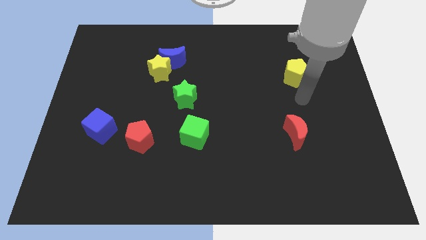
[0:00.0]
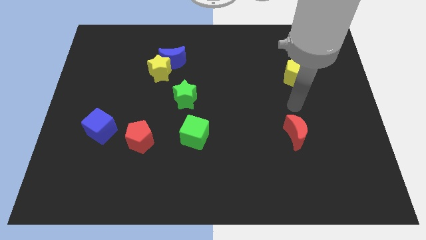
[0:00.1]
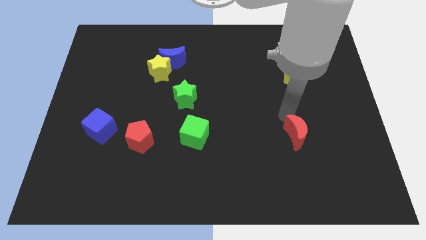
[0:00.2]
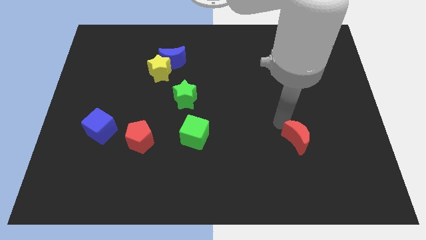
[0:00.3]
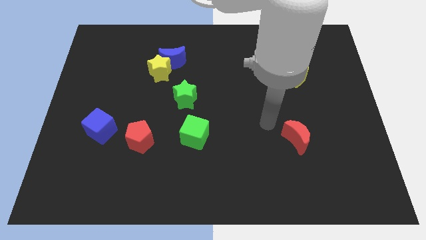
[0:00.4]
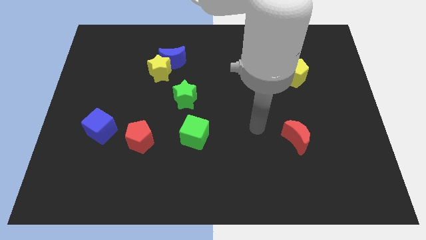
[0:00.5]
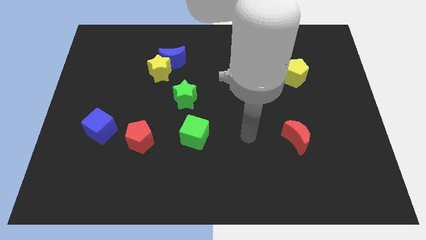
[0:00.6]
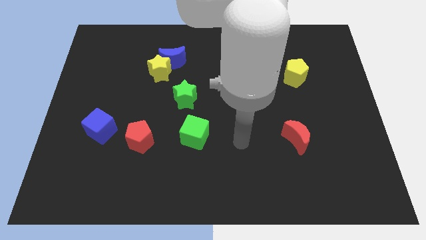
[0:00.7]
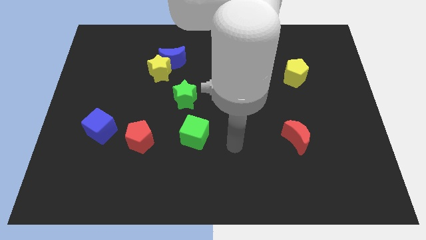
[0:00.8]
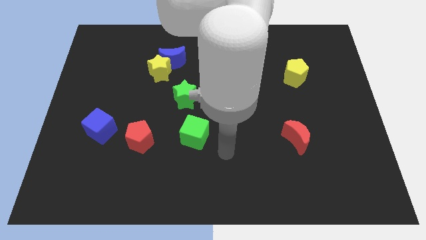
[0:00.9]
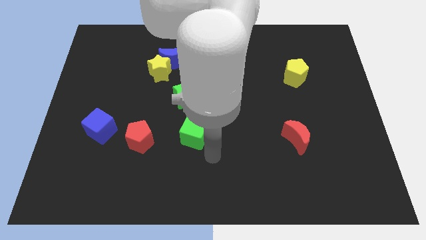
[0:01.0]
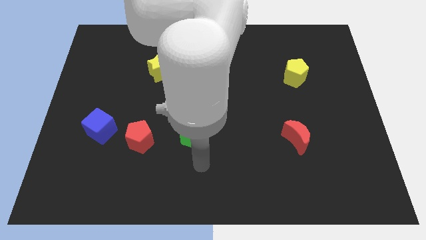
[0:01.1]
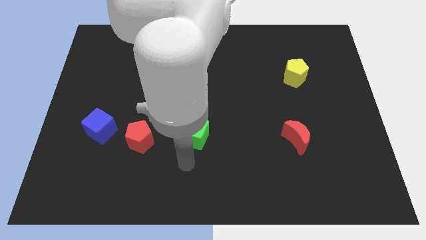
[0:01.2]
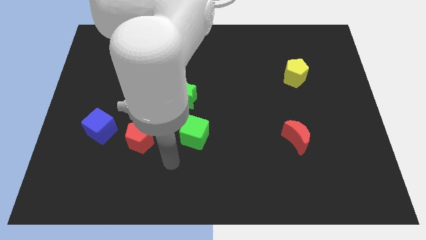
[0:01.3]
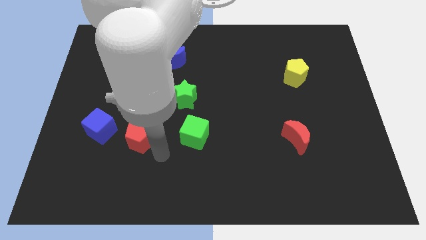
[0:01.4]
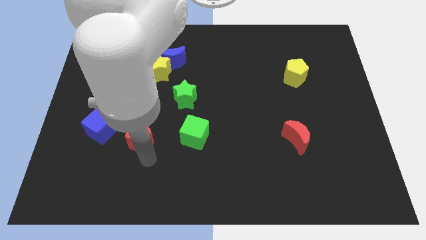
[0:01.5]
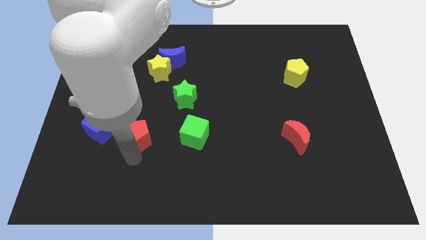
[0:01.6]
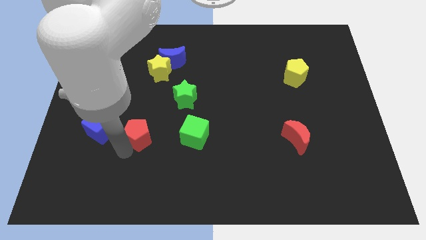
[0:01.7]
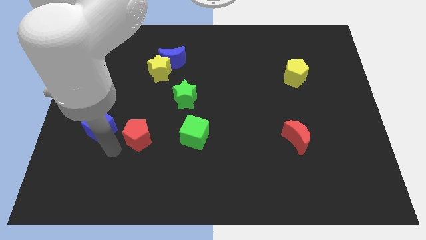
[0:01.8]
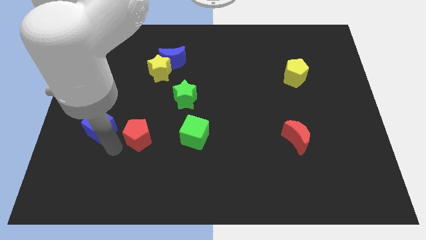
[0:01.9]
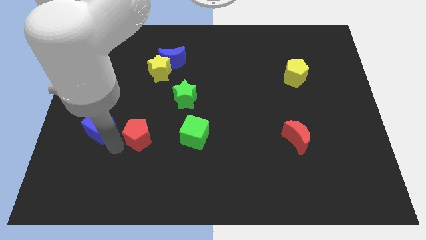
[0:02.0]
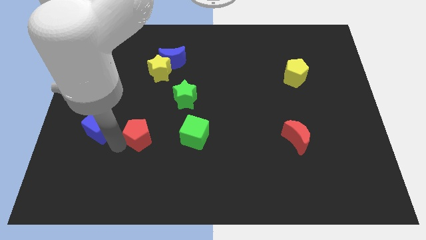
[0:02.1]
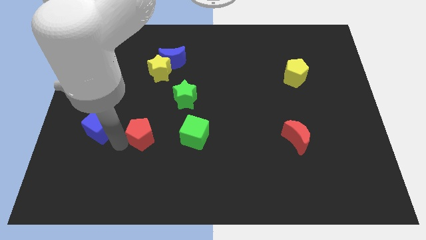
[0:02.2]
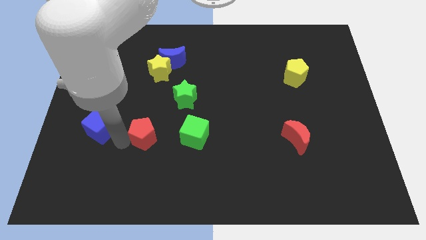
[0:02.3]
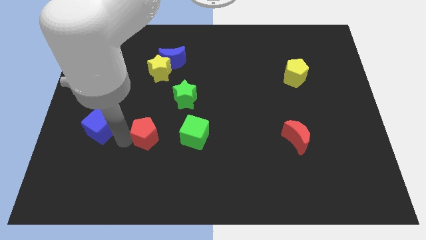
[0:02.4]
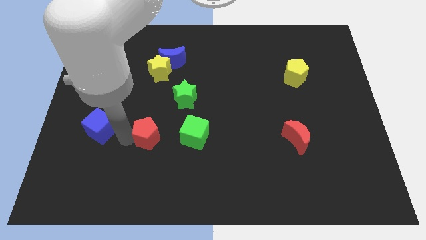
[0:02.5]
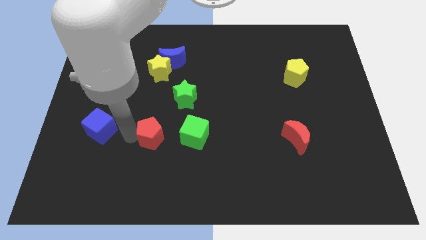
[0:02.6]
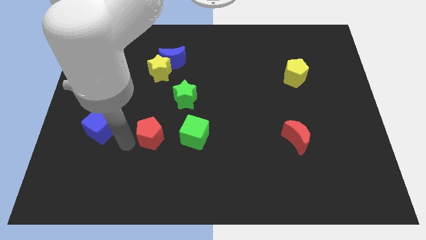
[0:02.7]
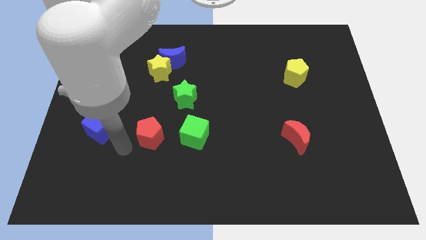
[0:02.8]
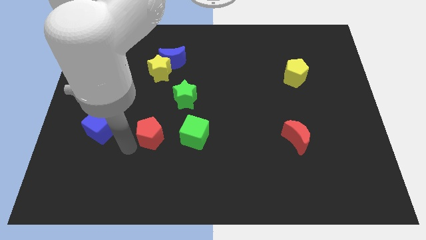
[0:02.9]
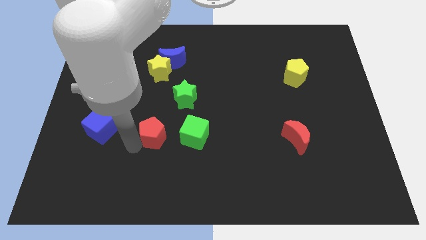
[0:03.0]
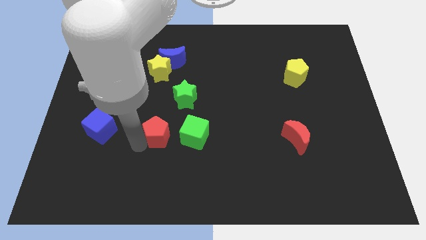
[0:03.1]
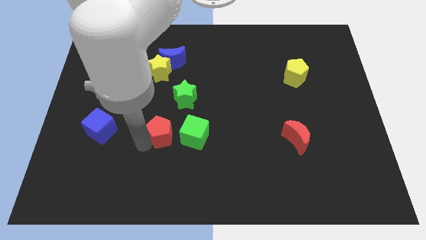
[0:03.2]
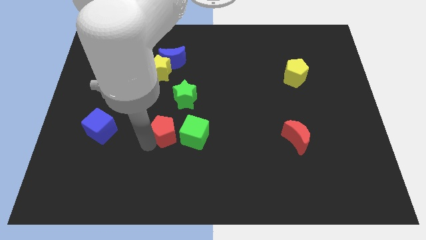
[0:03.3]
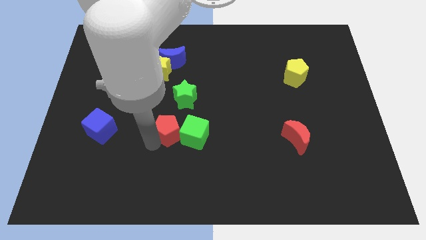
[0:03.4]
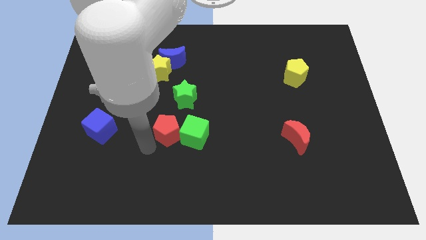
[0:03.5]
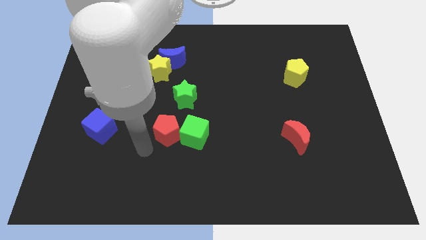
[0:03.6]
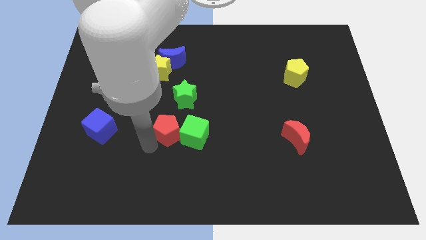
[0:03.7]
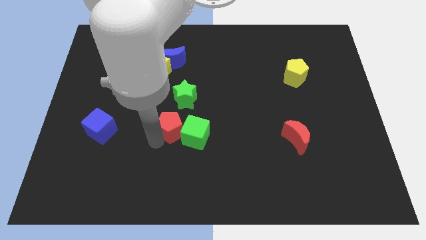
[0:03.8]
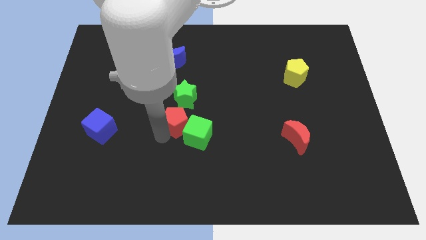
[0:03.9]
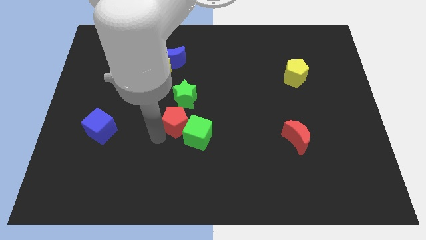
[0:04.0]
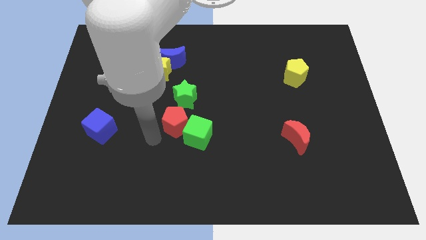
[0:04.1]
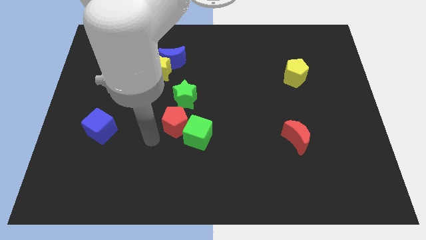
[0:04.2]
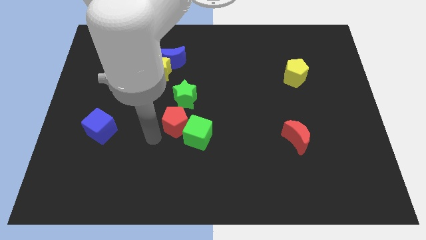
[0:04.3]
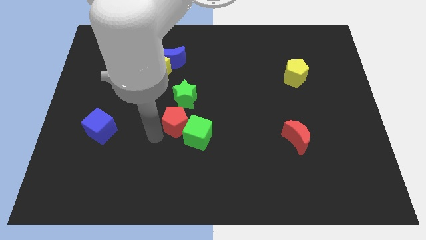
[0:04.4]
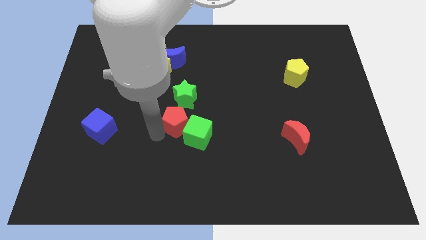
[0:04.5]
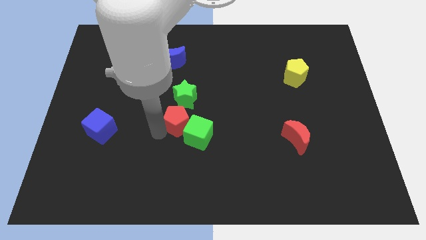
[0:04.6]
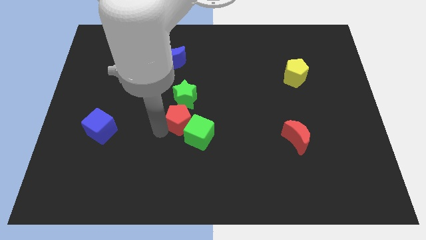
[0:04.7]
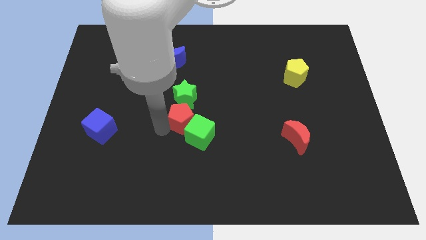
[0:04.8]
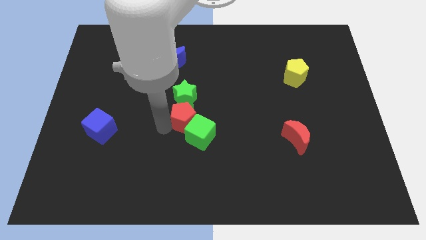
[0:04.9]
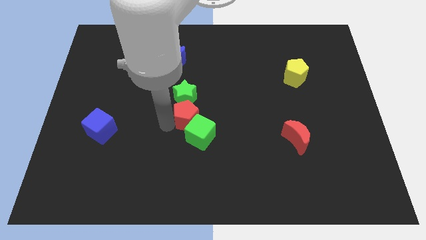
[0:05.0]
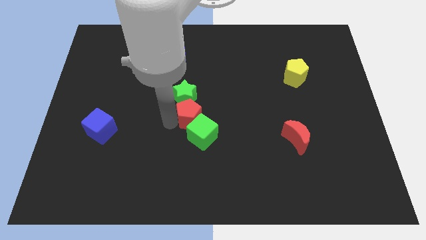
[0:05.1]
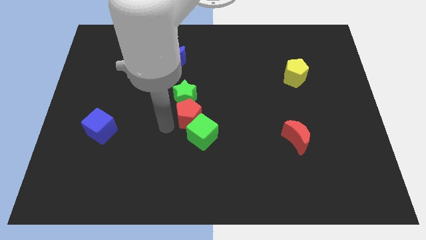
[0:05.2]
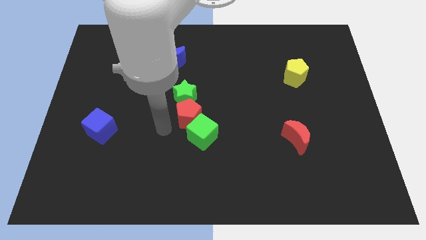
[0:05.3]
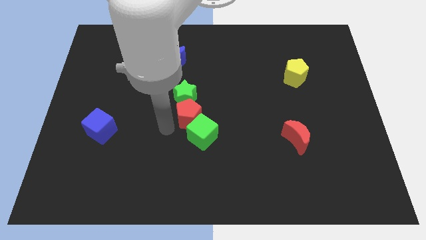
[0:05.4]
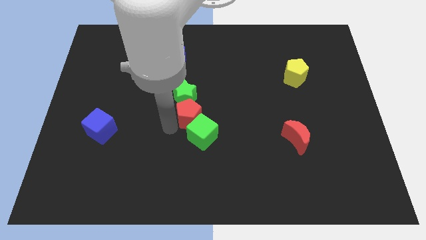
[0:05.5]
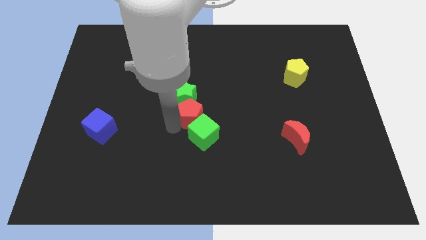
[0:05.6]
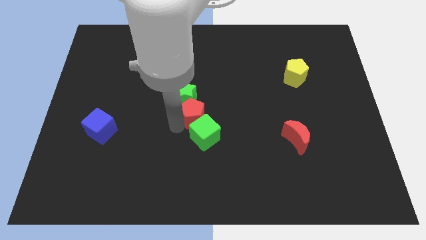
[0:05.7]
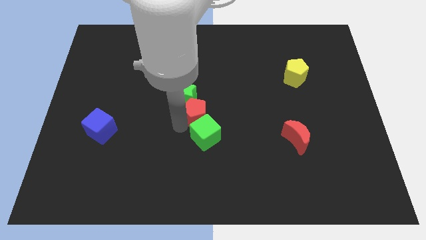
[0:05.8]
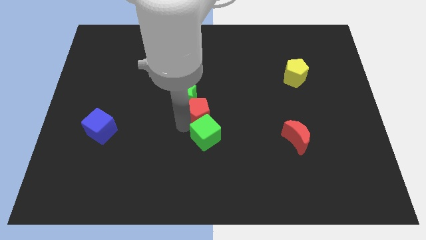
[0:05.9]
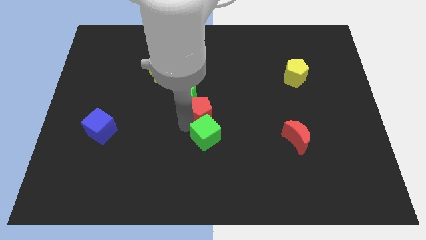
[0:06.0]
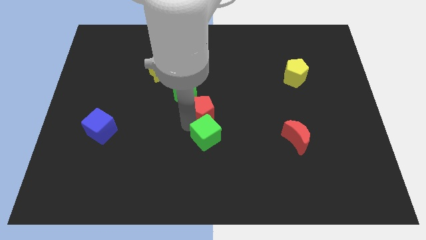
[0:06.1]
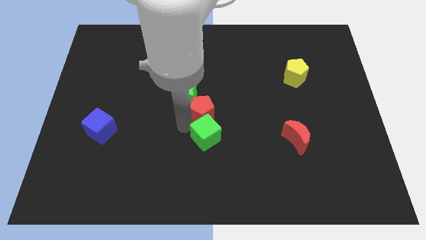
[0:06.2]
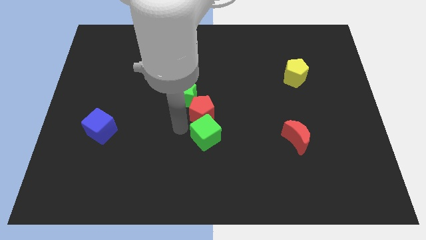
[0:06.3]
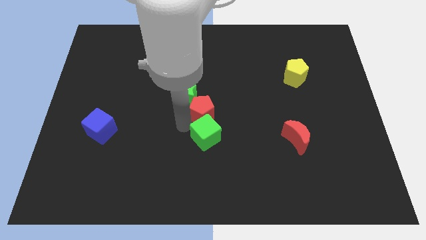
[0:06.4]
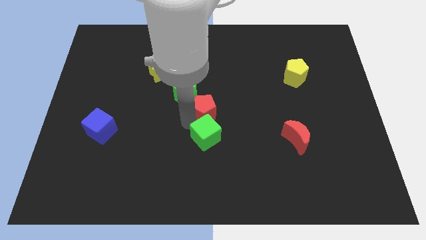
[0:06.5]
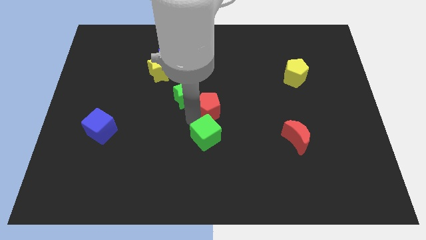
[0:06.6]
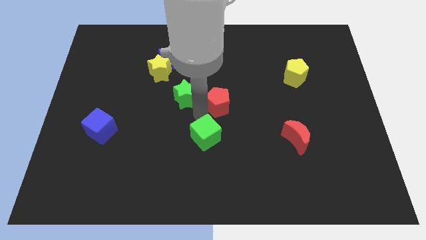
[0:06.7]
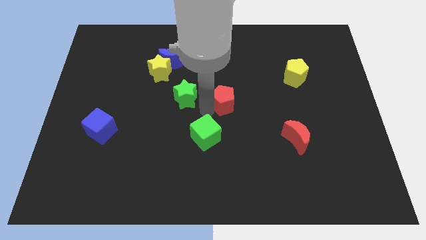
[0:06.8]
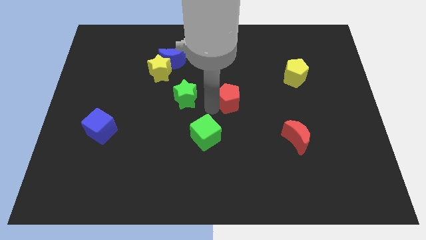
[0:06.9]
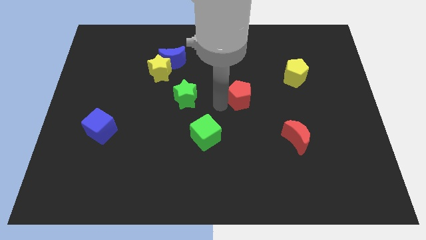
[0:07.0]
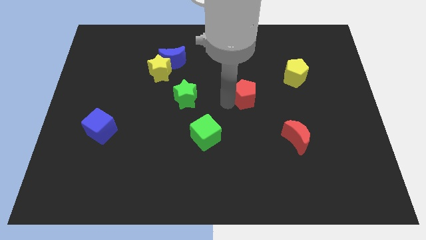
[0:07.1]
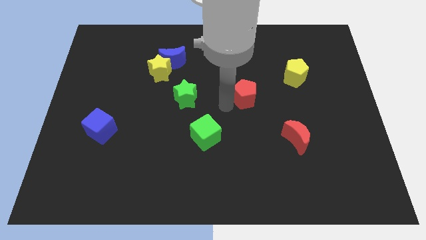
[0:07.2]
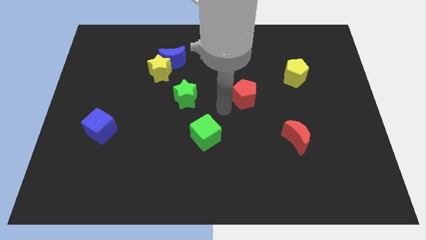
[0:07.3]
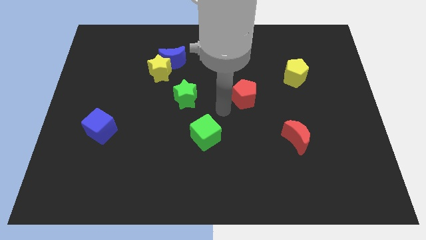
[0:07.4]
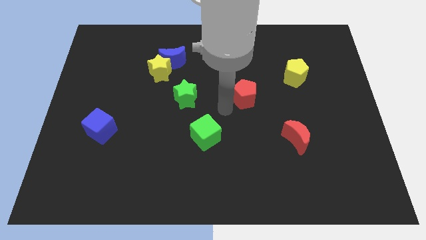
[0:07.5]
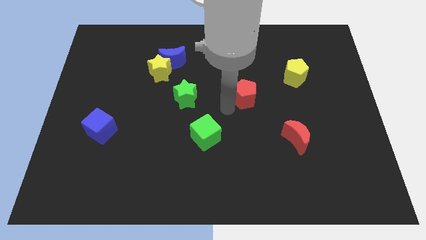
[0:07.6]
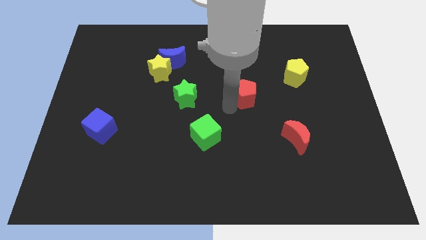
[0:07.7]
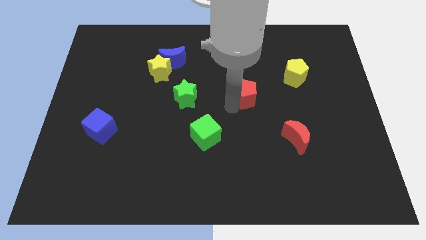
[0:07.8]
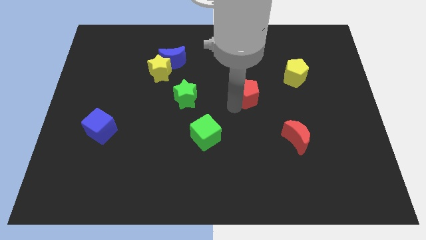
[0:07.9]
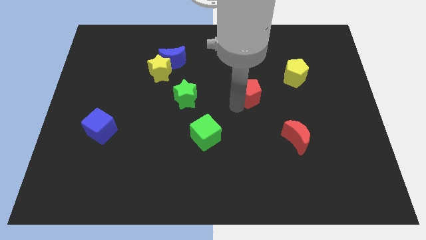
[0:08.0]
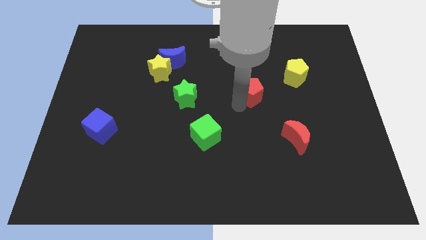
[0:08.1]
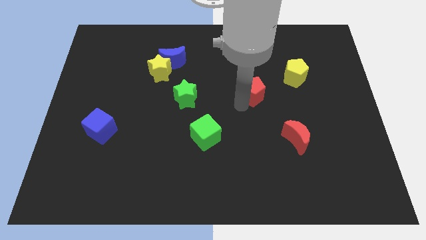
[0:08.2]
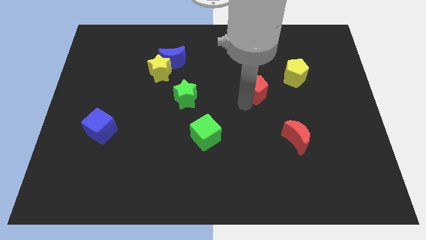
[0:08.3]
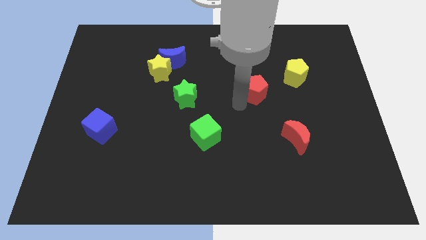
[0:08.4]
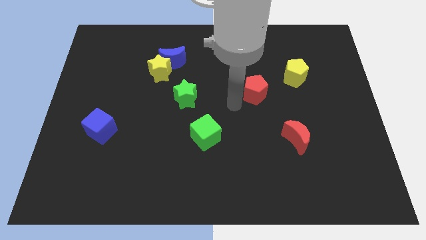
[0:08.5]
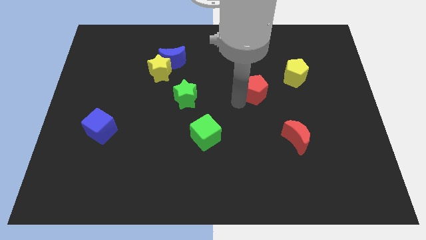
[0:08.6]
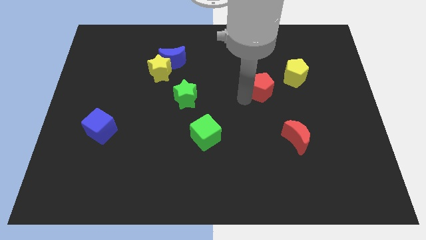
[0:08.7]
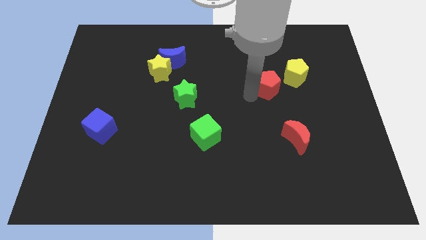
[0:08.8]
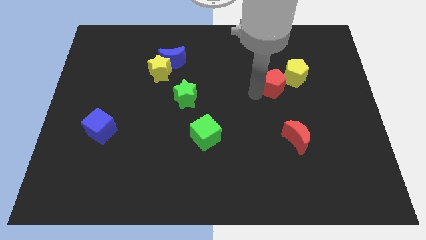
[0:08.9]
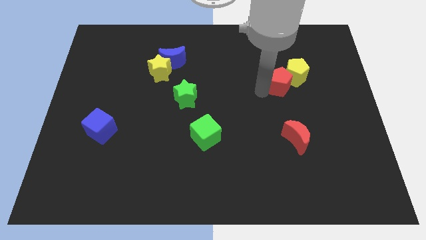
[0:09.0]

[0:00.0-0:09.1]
move the red pentagon close to the yellow pentagon
